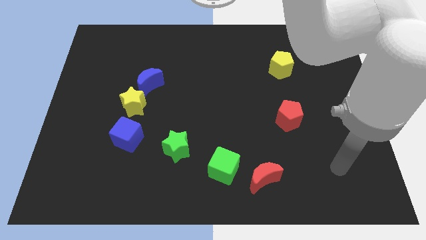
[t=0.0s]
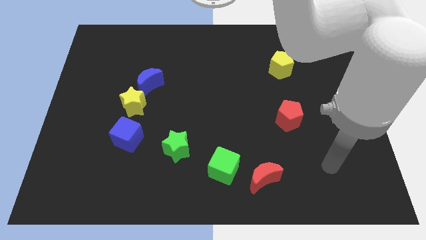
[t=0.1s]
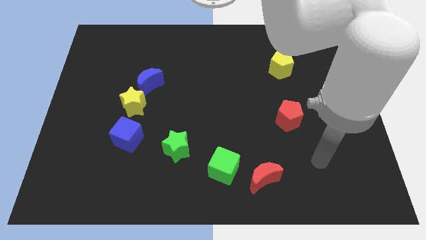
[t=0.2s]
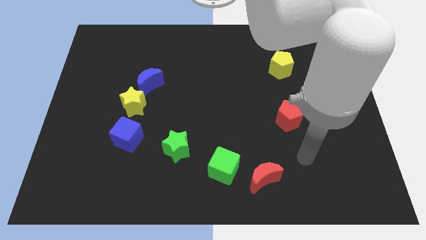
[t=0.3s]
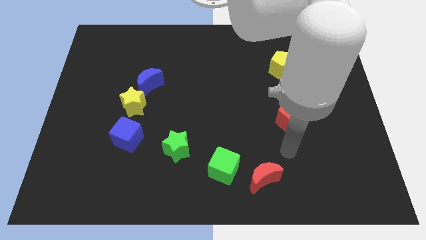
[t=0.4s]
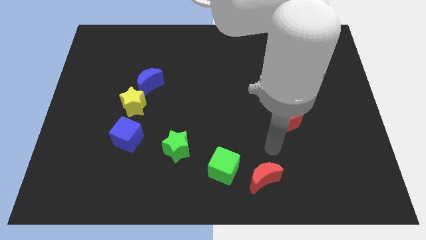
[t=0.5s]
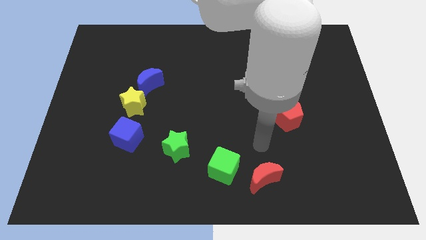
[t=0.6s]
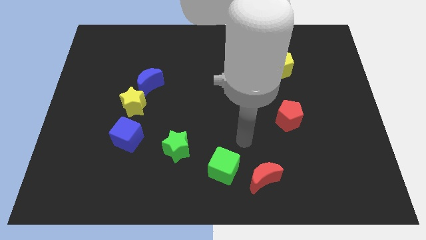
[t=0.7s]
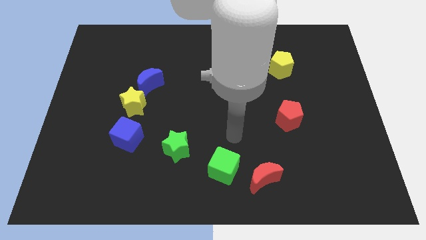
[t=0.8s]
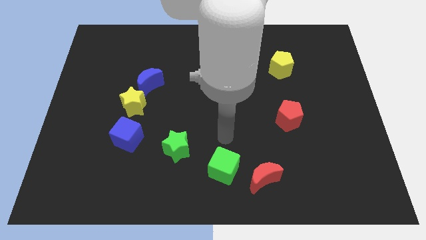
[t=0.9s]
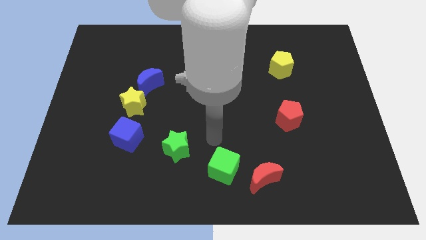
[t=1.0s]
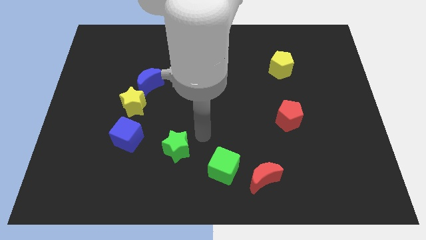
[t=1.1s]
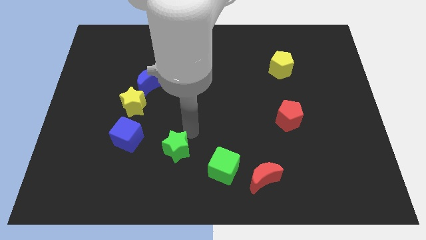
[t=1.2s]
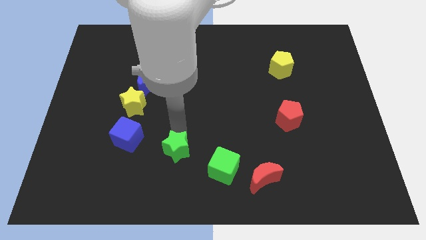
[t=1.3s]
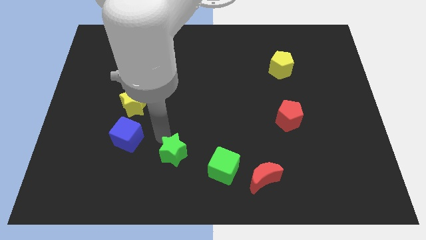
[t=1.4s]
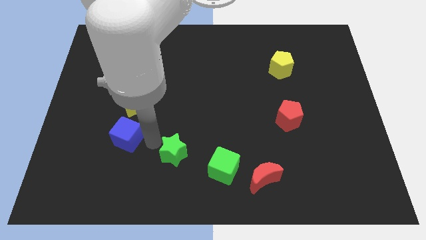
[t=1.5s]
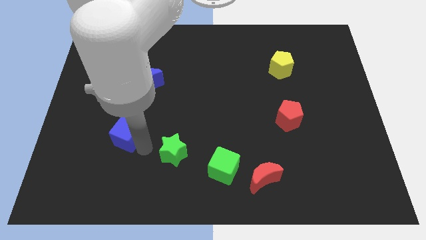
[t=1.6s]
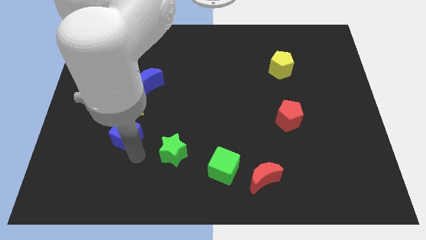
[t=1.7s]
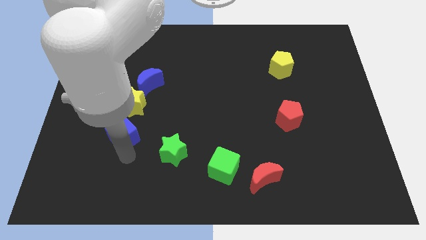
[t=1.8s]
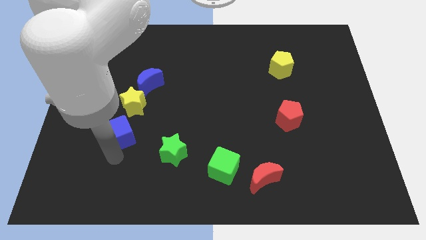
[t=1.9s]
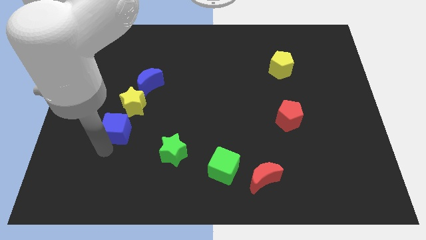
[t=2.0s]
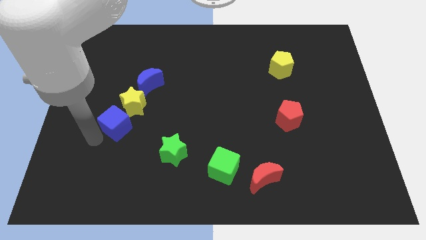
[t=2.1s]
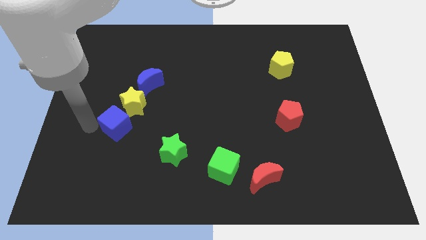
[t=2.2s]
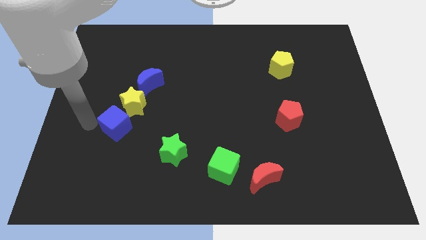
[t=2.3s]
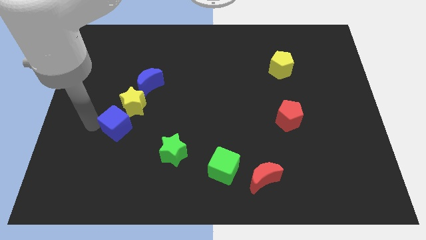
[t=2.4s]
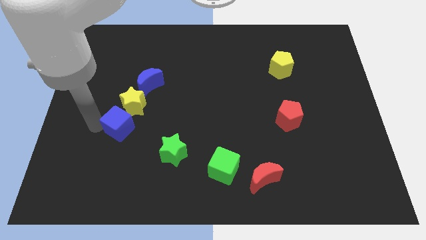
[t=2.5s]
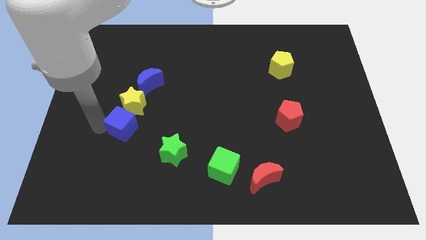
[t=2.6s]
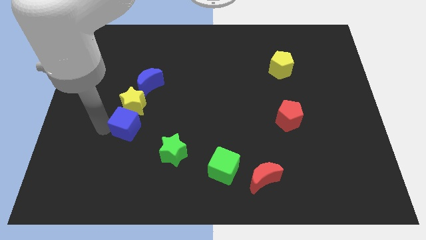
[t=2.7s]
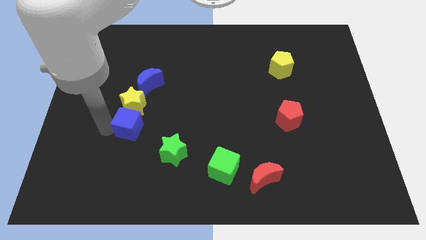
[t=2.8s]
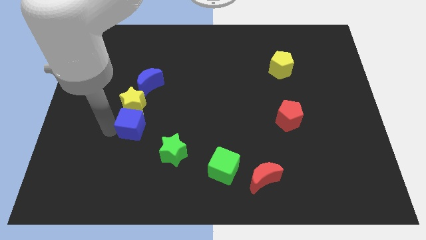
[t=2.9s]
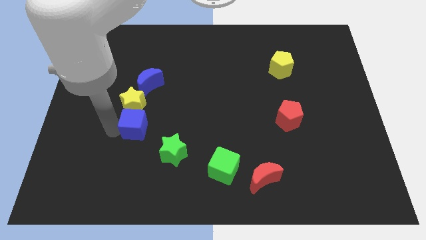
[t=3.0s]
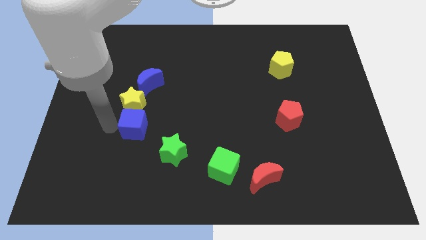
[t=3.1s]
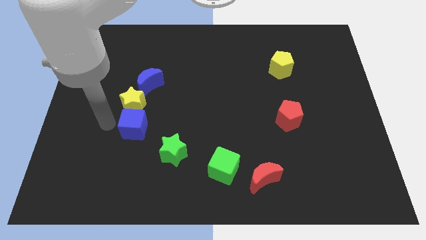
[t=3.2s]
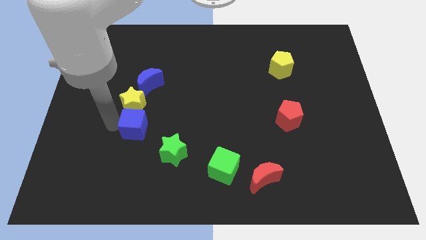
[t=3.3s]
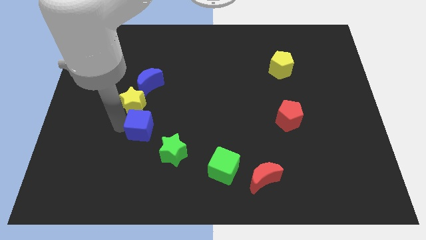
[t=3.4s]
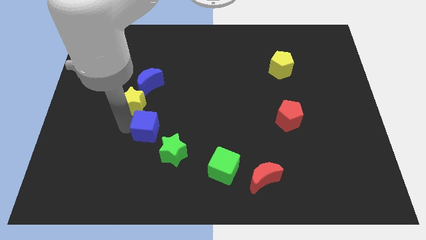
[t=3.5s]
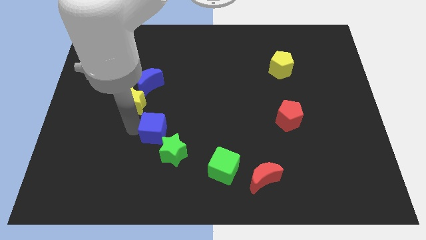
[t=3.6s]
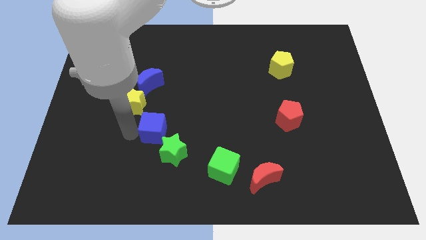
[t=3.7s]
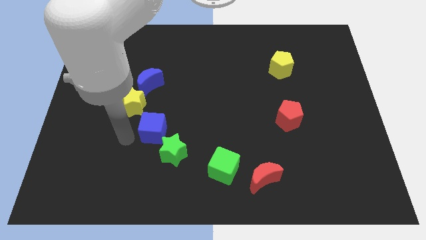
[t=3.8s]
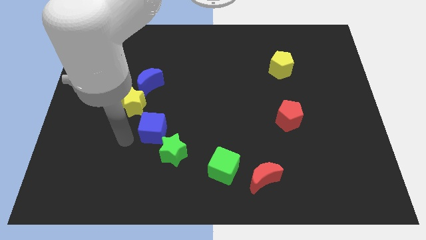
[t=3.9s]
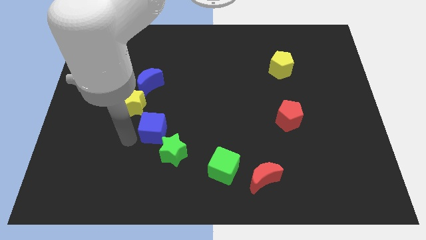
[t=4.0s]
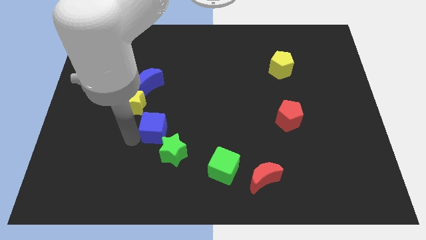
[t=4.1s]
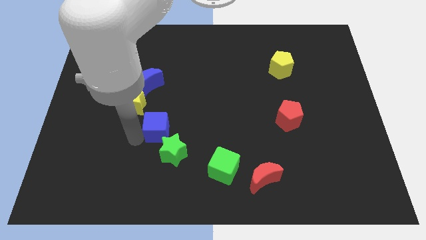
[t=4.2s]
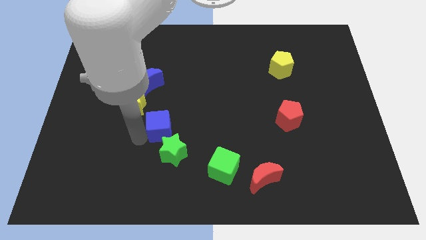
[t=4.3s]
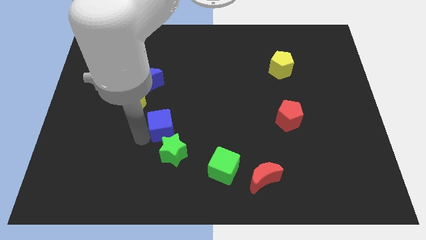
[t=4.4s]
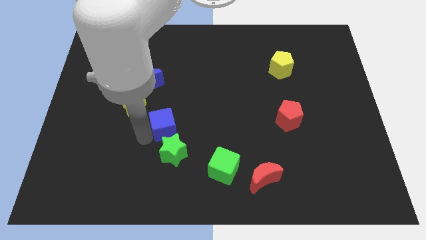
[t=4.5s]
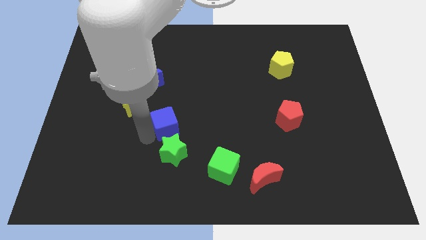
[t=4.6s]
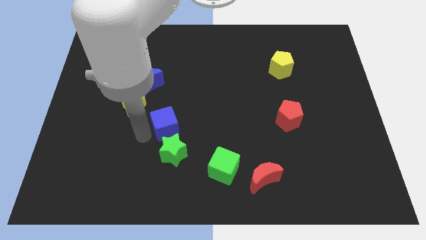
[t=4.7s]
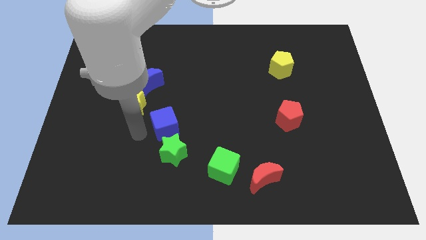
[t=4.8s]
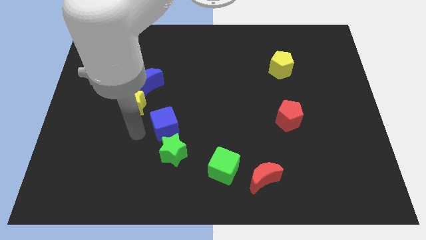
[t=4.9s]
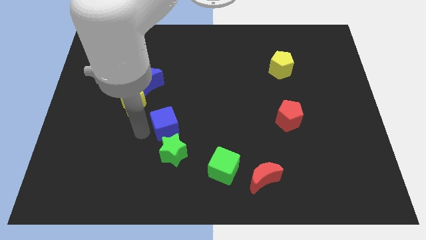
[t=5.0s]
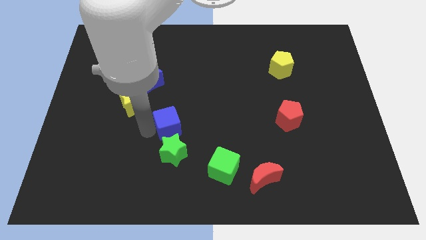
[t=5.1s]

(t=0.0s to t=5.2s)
slide the blue cube to the center of the board

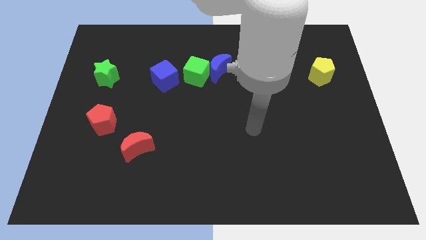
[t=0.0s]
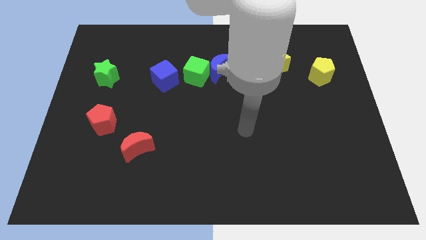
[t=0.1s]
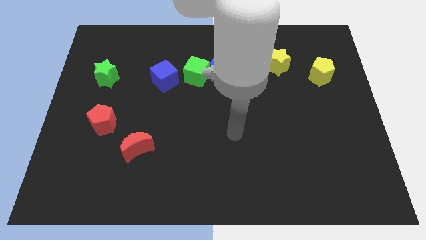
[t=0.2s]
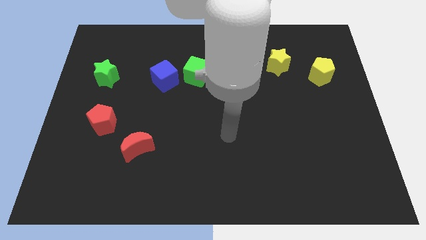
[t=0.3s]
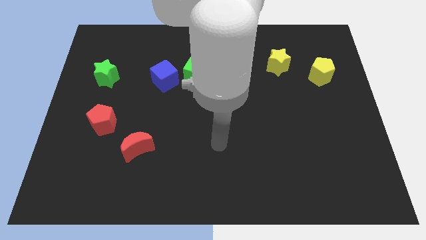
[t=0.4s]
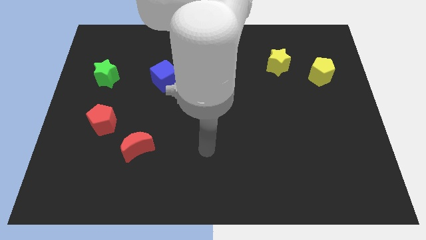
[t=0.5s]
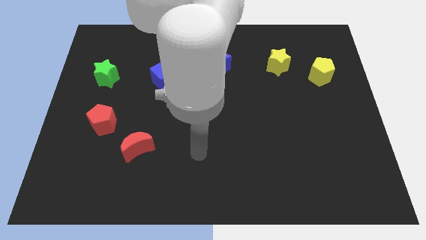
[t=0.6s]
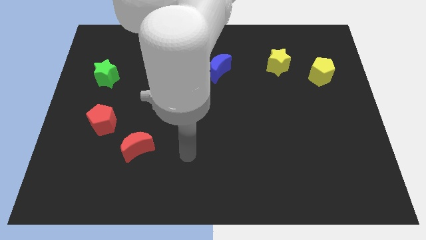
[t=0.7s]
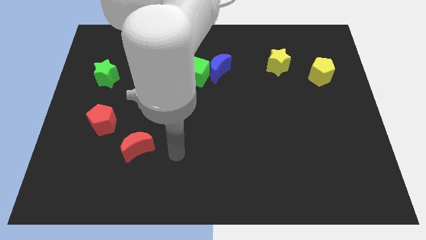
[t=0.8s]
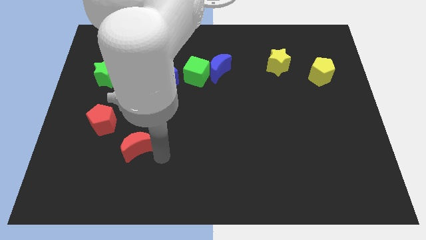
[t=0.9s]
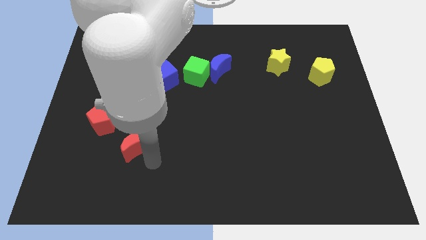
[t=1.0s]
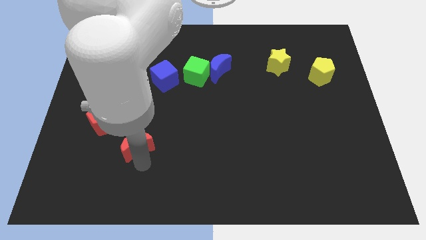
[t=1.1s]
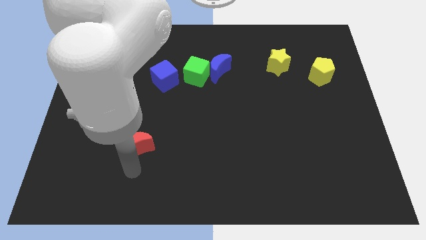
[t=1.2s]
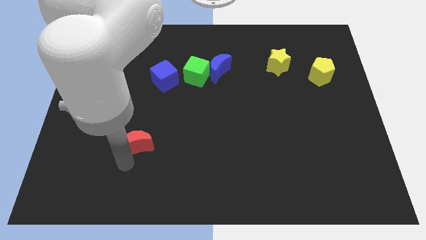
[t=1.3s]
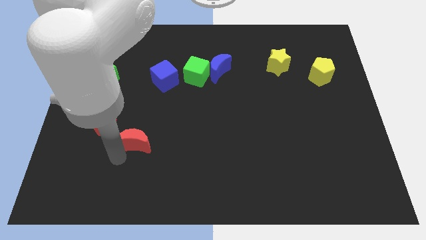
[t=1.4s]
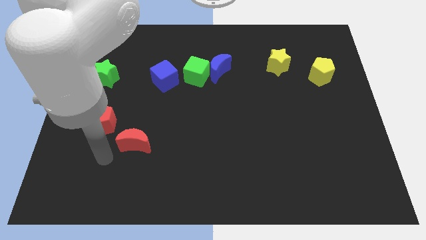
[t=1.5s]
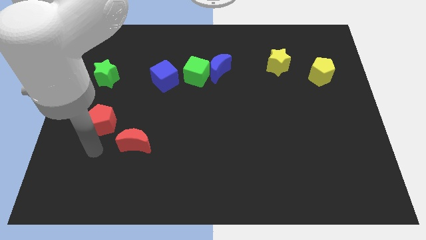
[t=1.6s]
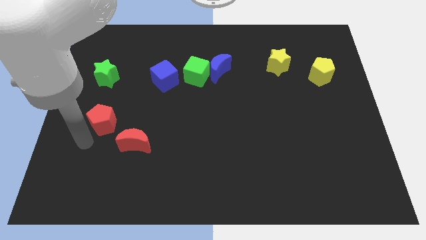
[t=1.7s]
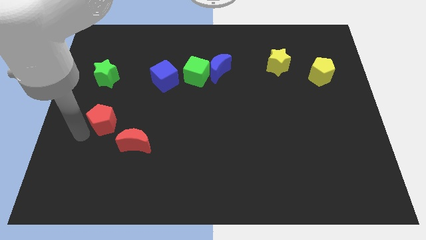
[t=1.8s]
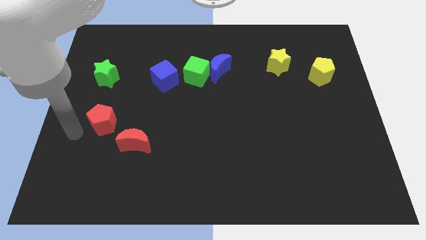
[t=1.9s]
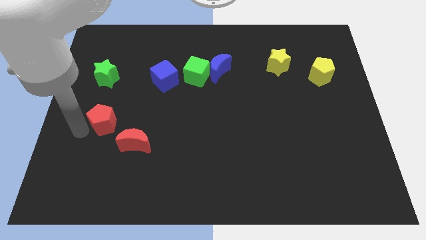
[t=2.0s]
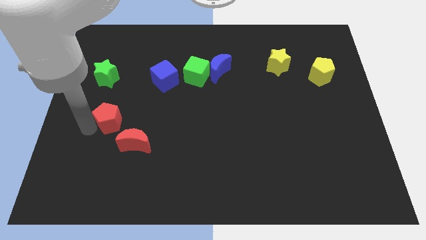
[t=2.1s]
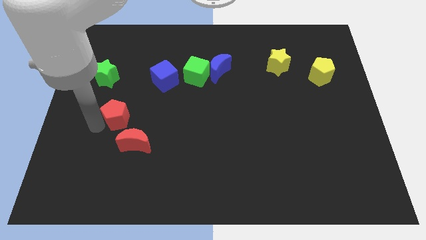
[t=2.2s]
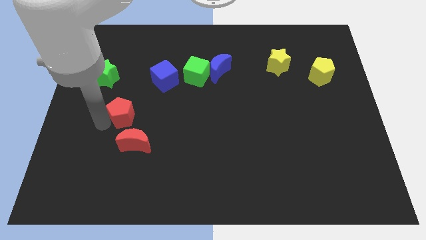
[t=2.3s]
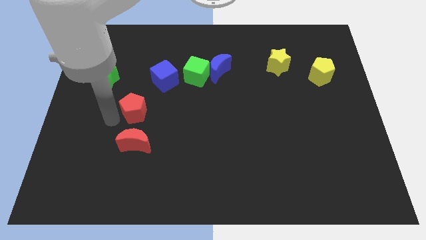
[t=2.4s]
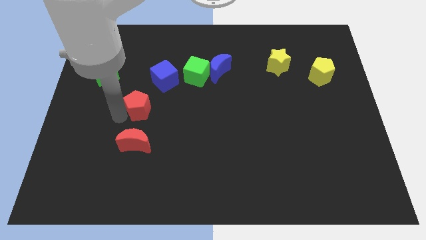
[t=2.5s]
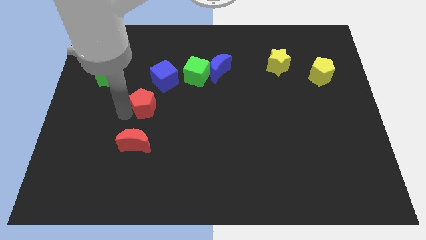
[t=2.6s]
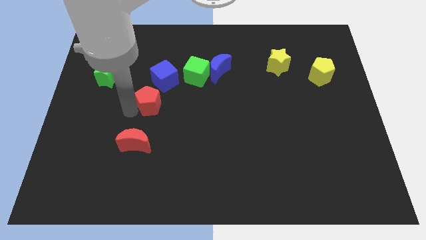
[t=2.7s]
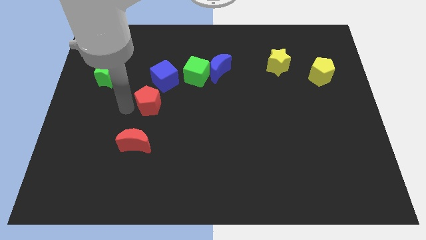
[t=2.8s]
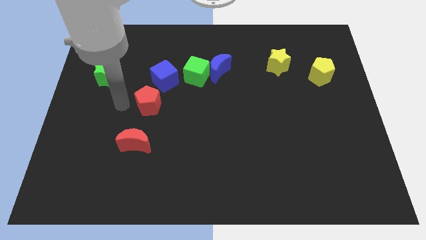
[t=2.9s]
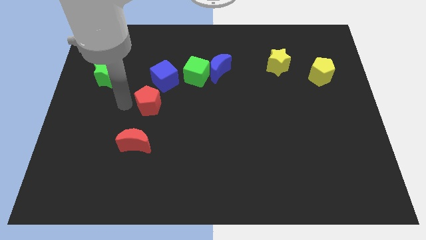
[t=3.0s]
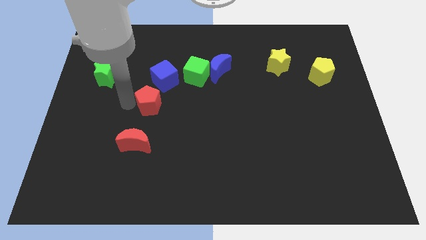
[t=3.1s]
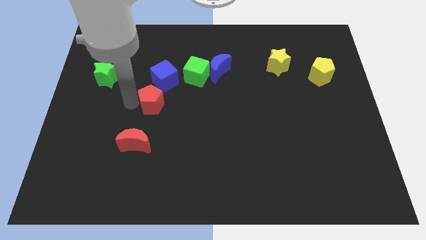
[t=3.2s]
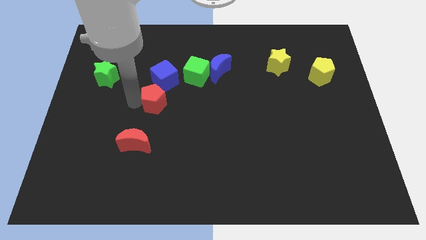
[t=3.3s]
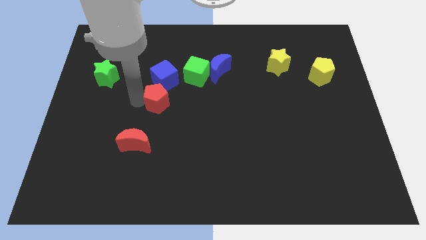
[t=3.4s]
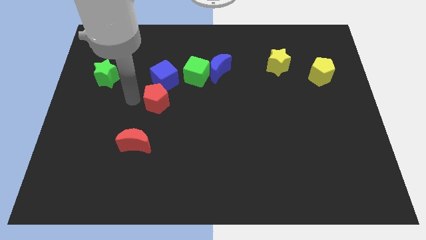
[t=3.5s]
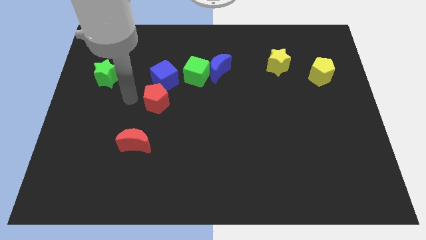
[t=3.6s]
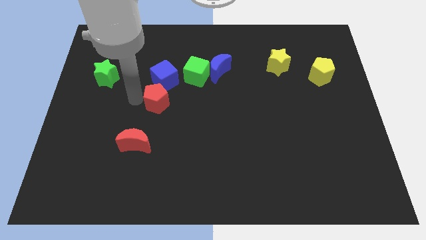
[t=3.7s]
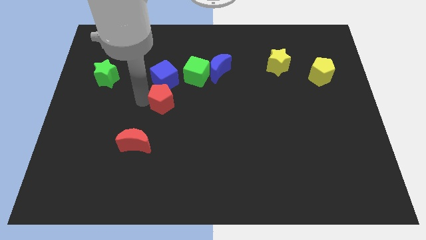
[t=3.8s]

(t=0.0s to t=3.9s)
push the red pentagon to the middle of the board
